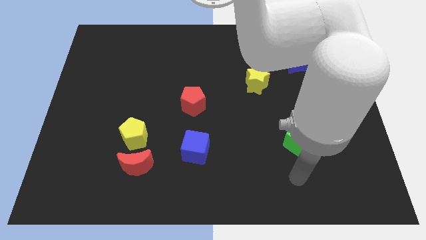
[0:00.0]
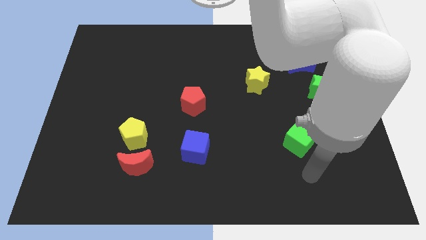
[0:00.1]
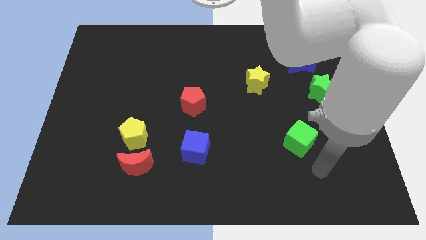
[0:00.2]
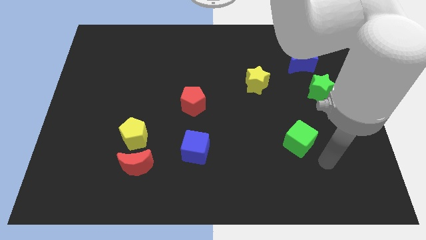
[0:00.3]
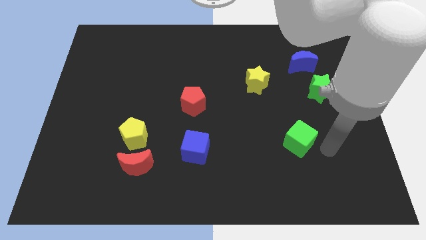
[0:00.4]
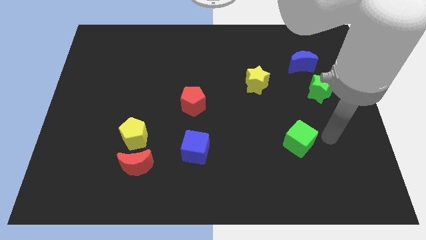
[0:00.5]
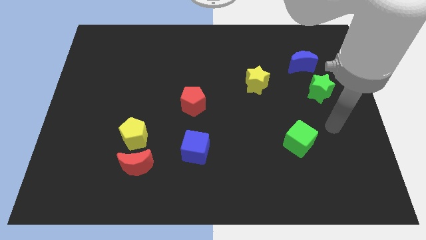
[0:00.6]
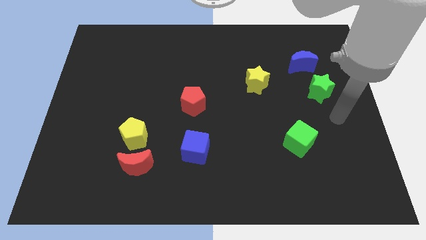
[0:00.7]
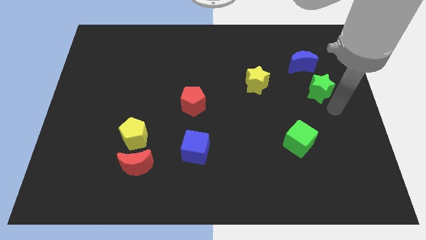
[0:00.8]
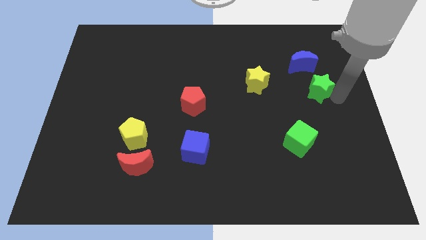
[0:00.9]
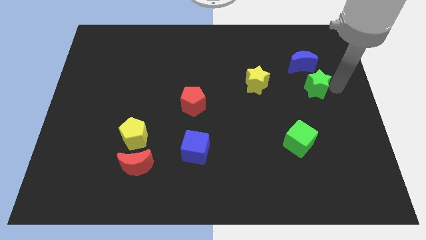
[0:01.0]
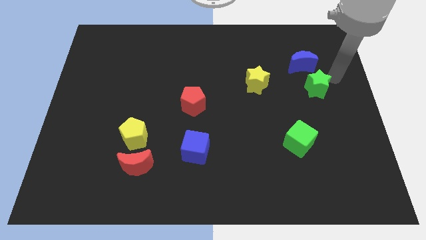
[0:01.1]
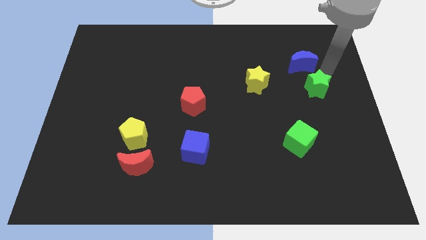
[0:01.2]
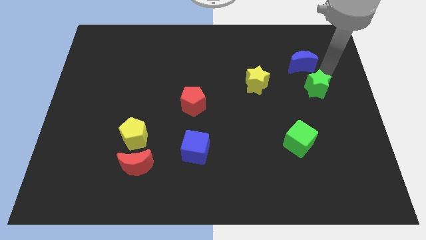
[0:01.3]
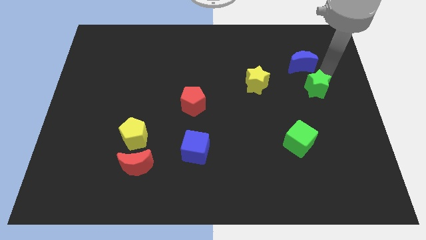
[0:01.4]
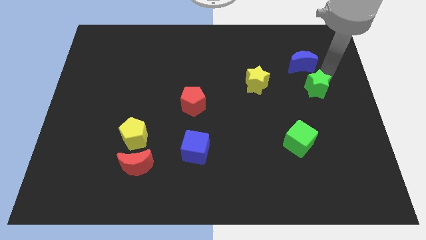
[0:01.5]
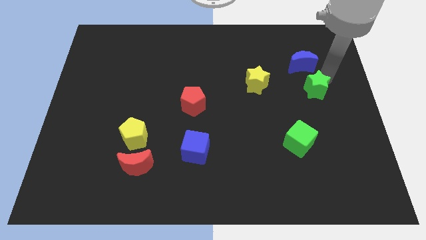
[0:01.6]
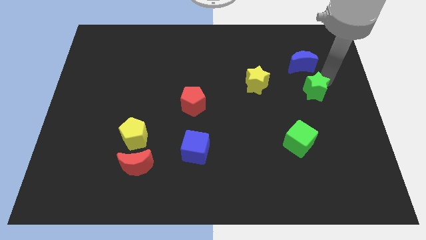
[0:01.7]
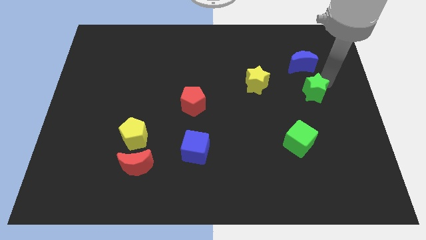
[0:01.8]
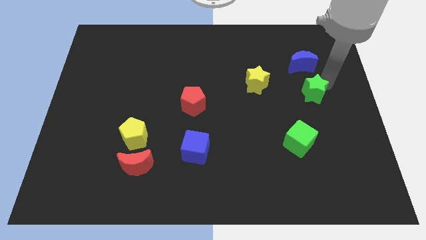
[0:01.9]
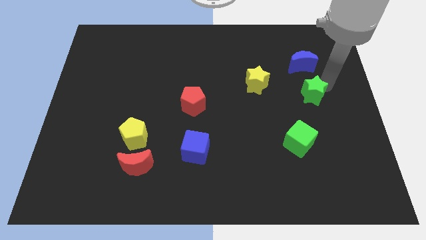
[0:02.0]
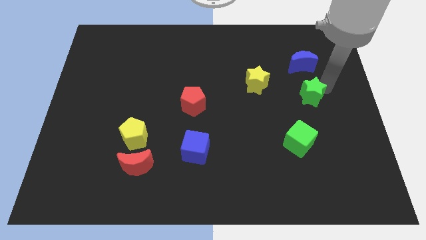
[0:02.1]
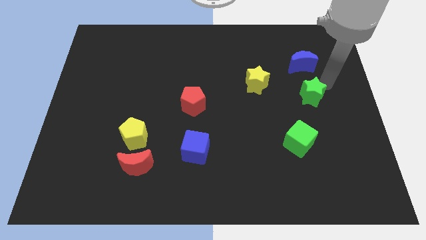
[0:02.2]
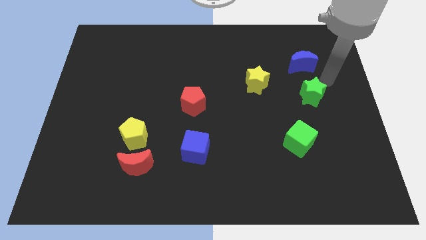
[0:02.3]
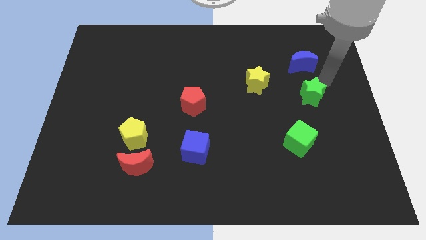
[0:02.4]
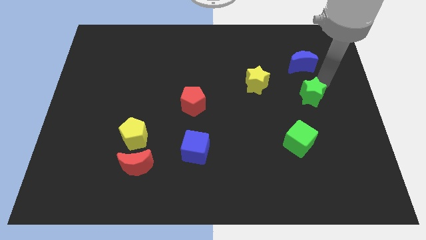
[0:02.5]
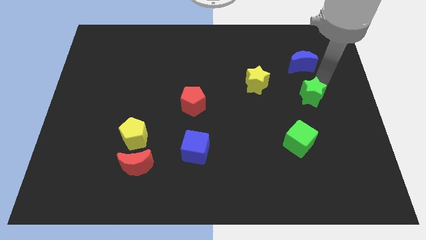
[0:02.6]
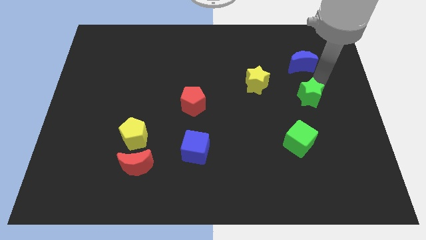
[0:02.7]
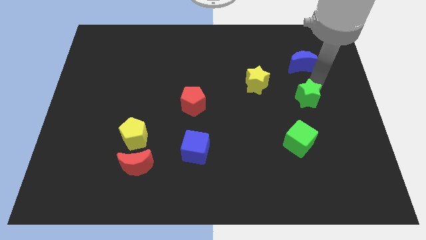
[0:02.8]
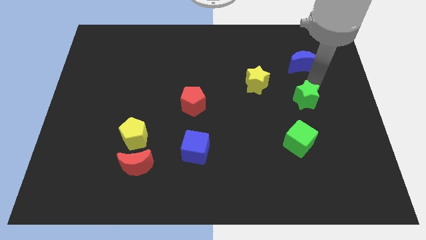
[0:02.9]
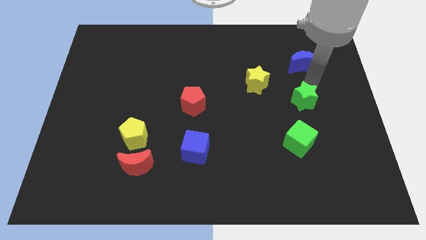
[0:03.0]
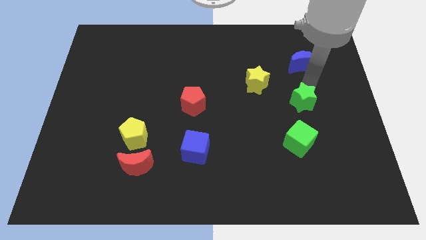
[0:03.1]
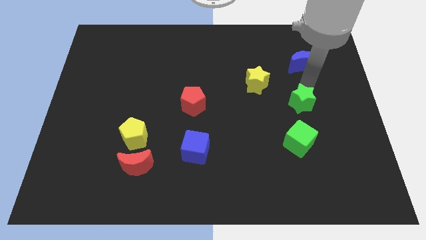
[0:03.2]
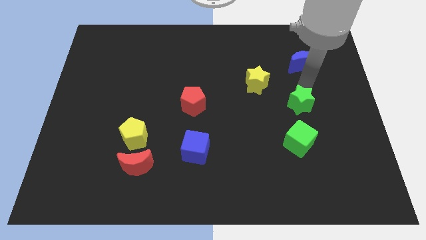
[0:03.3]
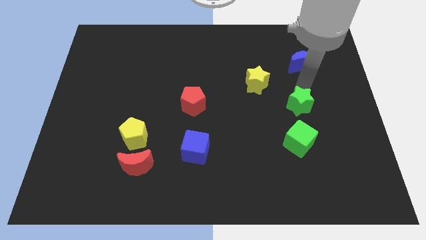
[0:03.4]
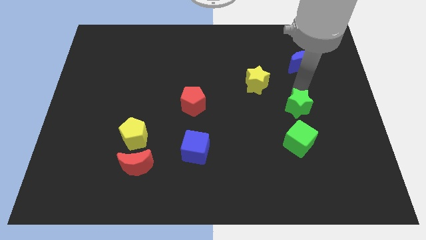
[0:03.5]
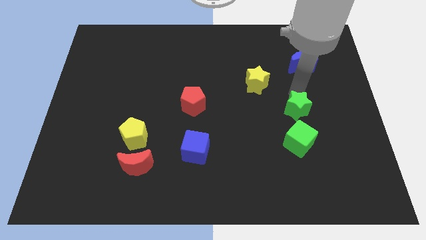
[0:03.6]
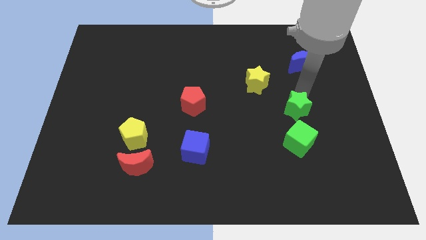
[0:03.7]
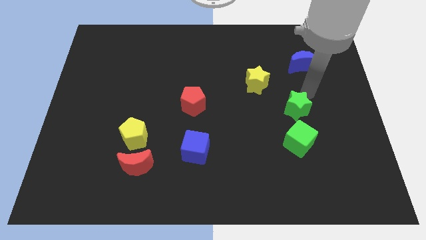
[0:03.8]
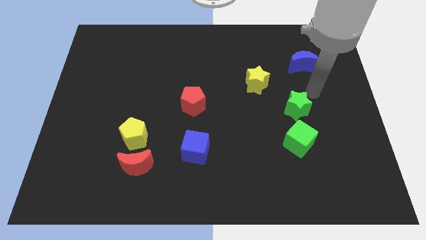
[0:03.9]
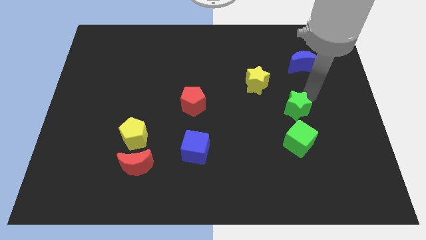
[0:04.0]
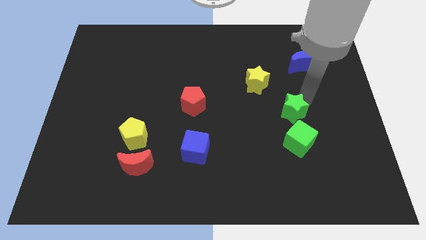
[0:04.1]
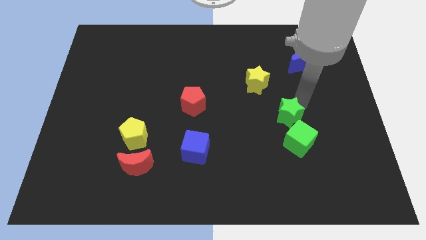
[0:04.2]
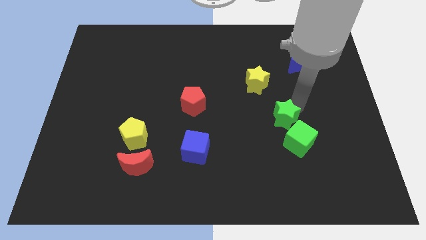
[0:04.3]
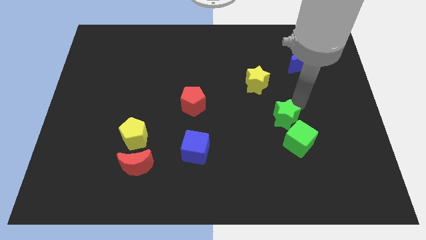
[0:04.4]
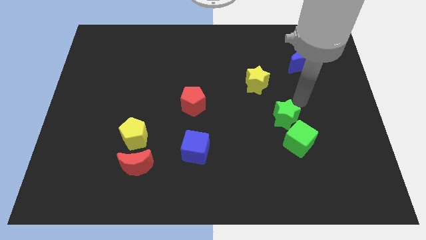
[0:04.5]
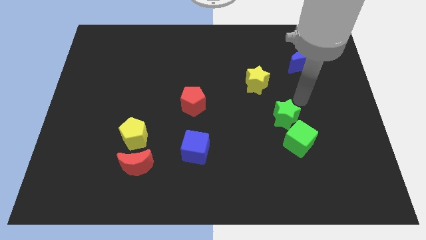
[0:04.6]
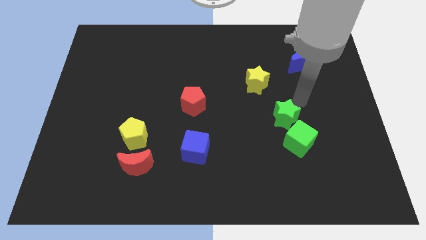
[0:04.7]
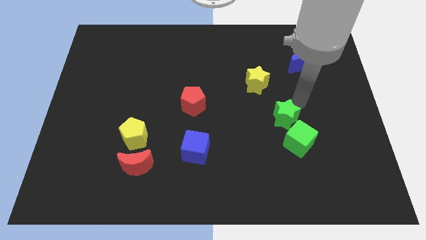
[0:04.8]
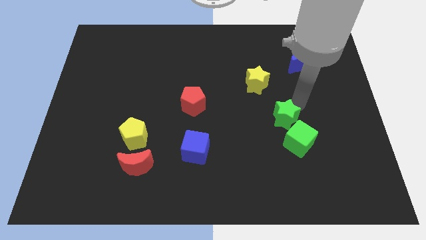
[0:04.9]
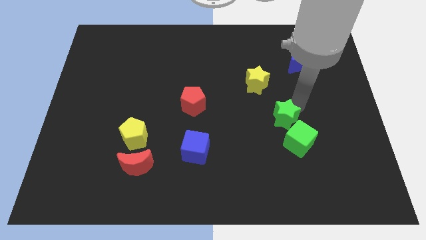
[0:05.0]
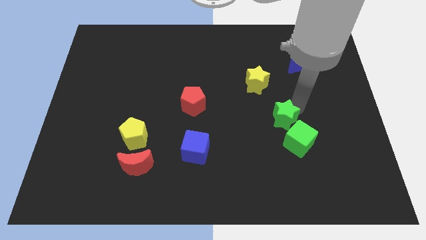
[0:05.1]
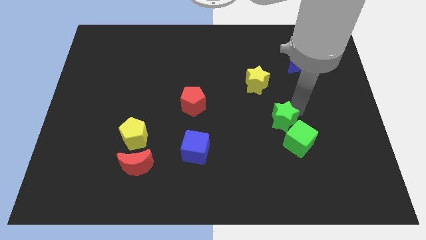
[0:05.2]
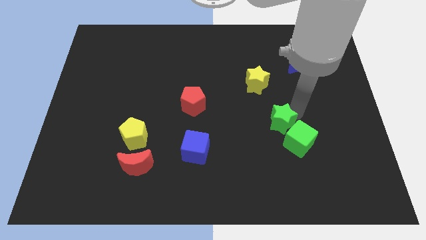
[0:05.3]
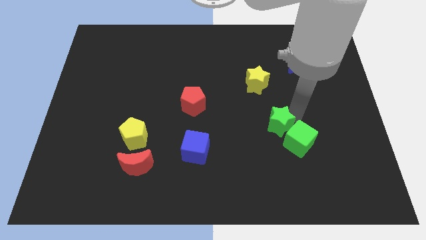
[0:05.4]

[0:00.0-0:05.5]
move the green star to the left of the green cube

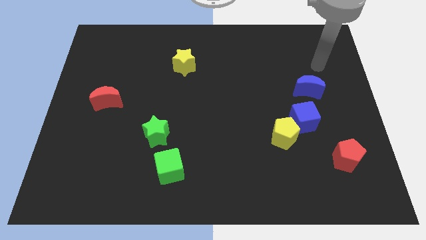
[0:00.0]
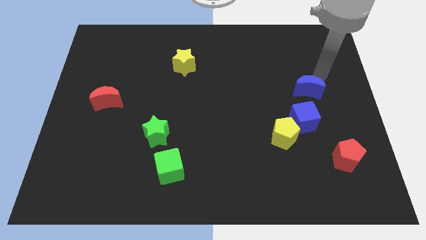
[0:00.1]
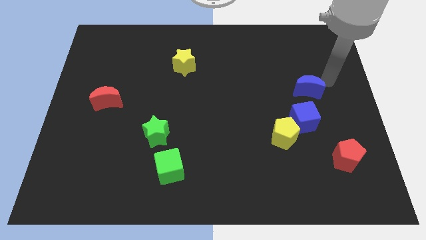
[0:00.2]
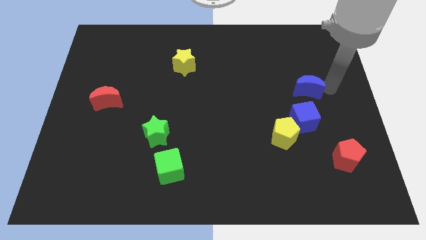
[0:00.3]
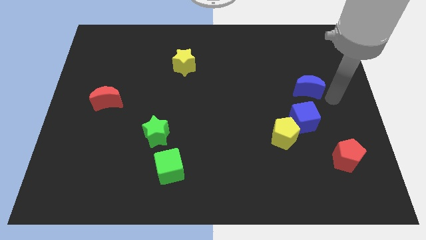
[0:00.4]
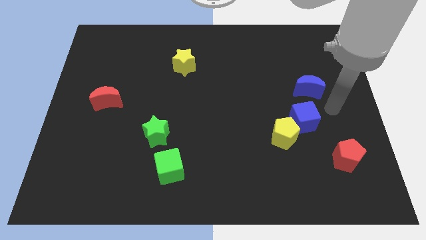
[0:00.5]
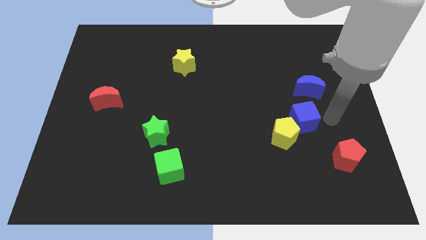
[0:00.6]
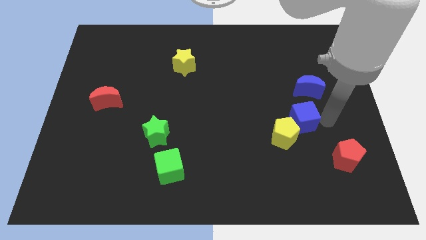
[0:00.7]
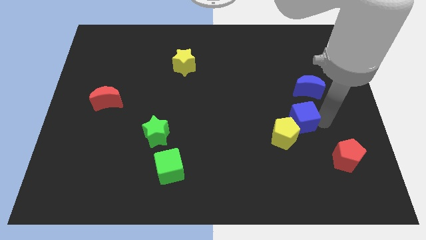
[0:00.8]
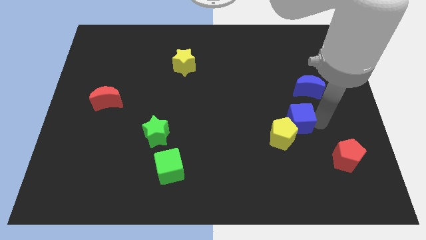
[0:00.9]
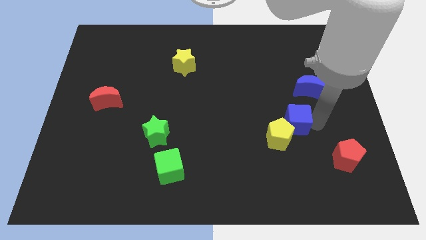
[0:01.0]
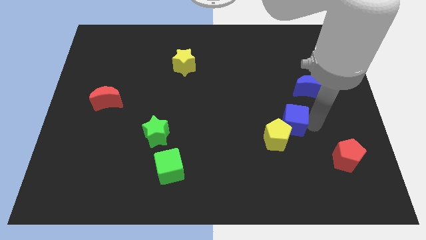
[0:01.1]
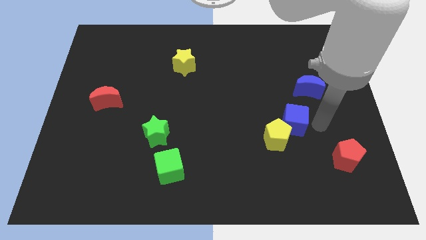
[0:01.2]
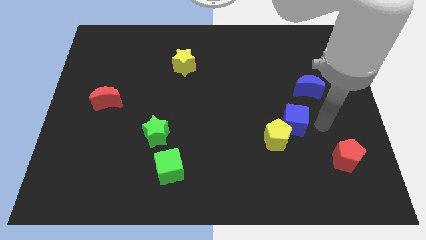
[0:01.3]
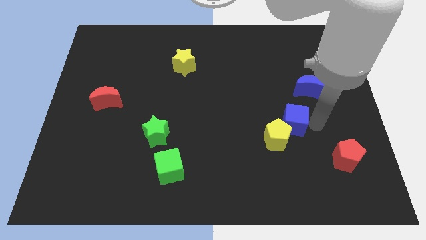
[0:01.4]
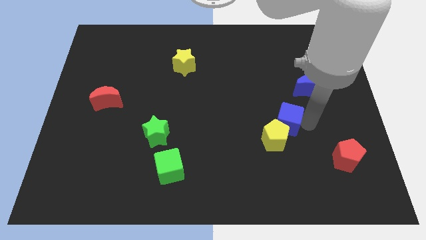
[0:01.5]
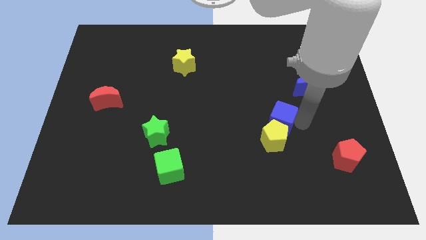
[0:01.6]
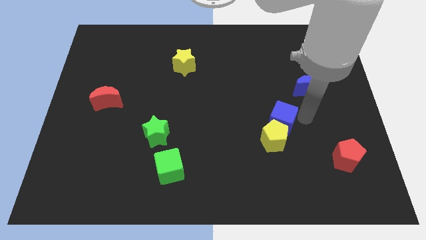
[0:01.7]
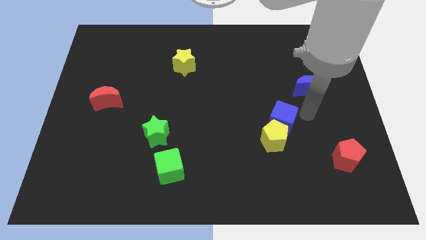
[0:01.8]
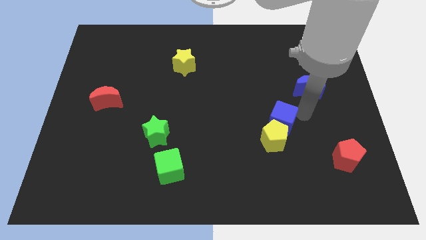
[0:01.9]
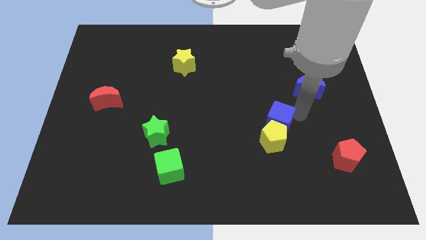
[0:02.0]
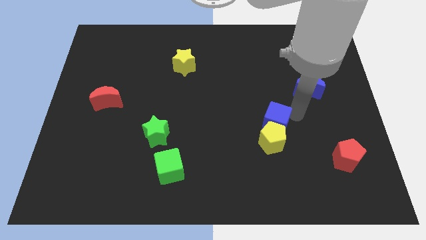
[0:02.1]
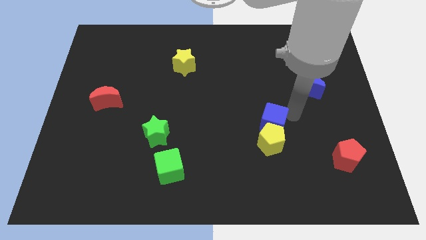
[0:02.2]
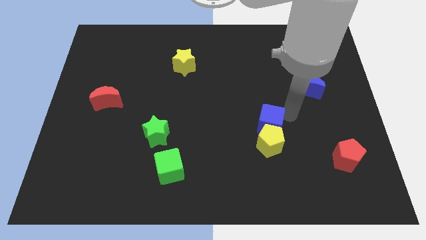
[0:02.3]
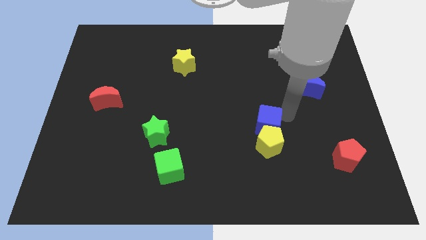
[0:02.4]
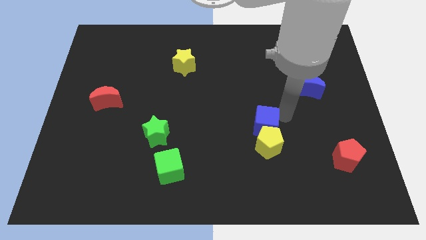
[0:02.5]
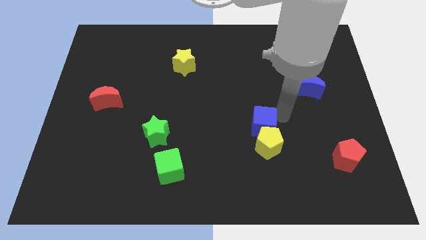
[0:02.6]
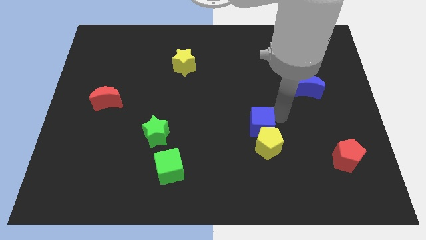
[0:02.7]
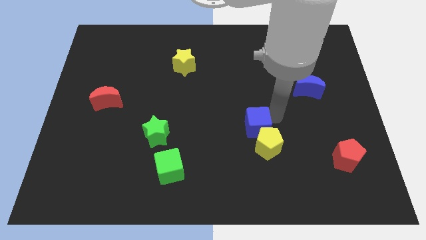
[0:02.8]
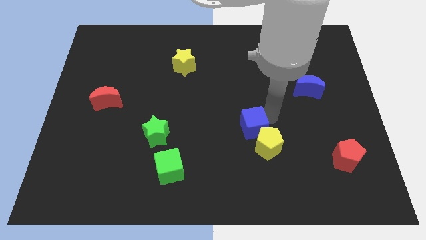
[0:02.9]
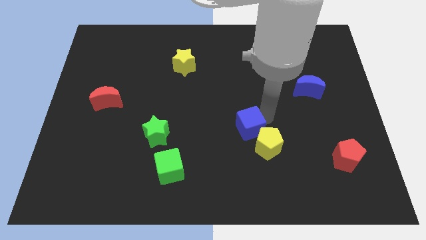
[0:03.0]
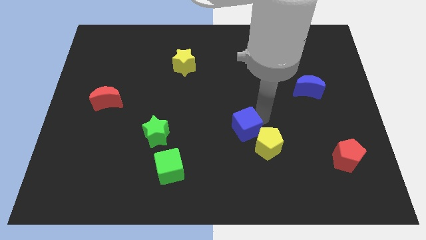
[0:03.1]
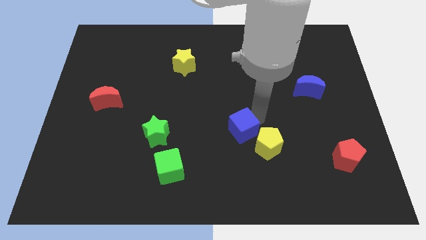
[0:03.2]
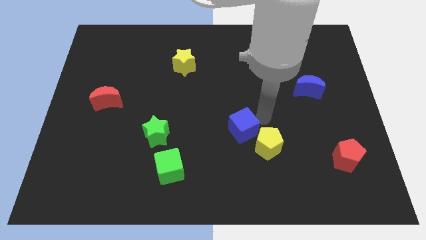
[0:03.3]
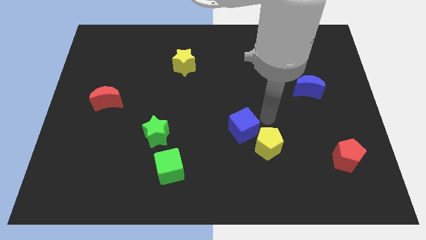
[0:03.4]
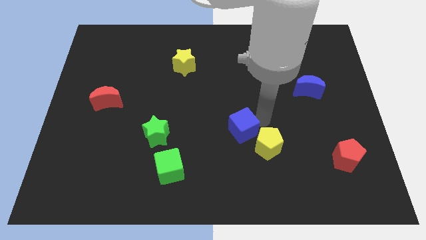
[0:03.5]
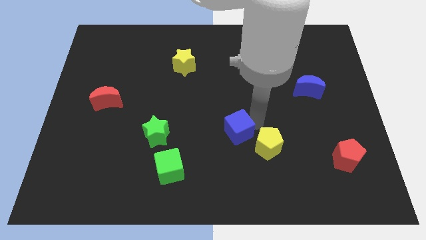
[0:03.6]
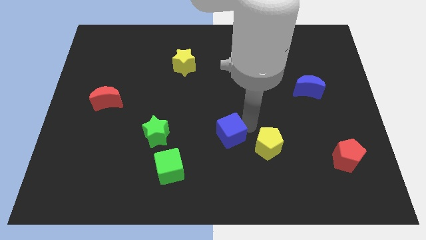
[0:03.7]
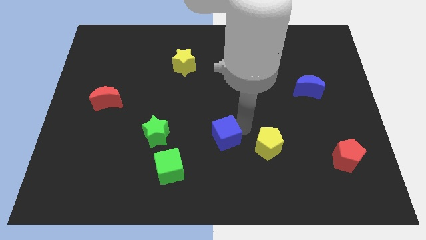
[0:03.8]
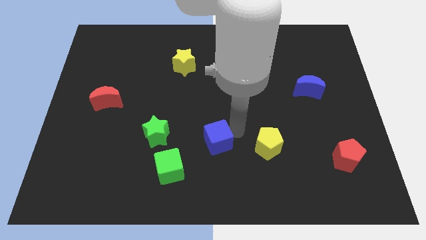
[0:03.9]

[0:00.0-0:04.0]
move the blue cube to the top right side of the green cube
